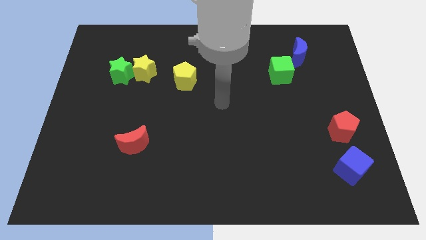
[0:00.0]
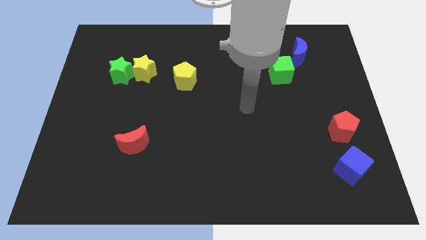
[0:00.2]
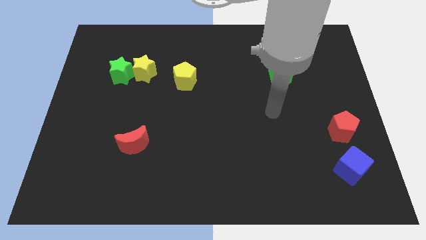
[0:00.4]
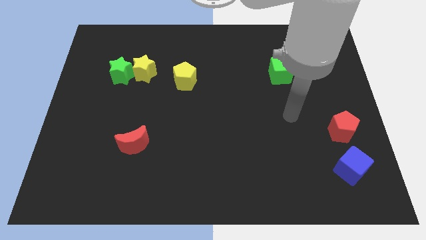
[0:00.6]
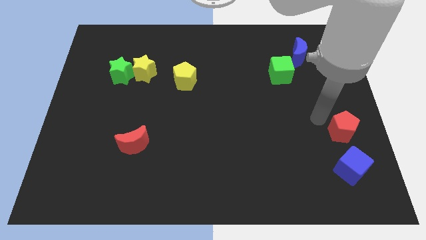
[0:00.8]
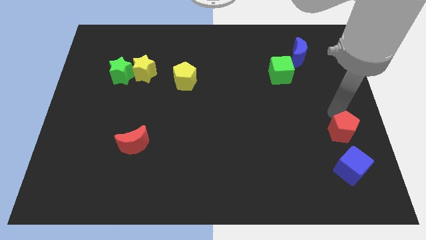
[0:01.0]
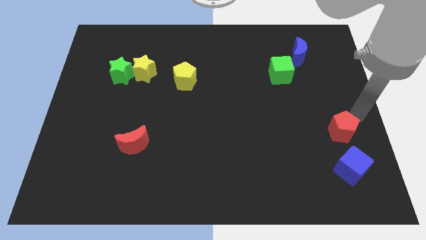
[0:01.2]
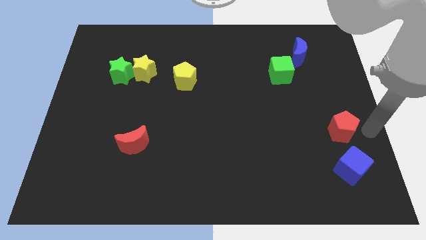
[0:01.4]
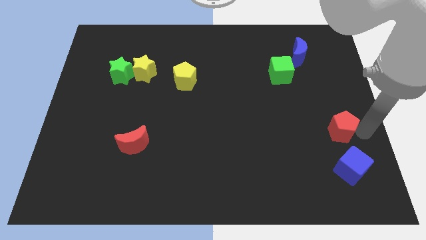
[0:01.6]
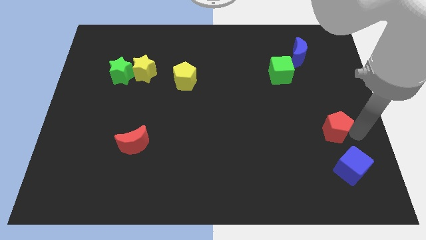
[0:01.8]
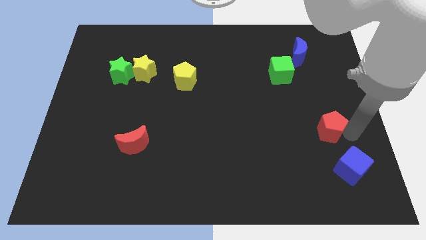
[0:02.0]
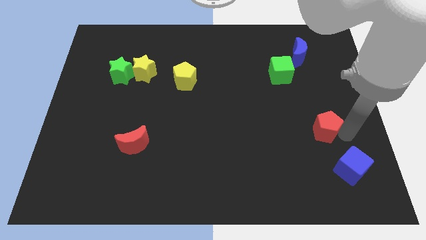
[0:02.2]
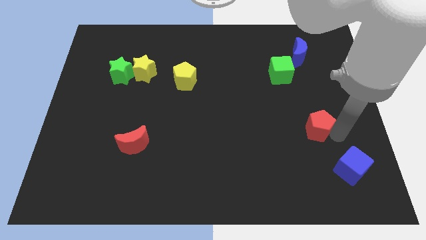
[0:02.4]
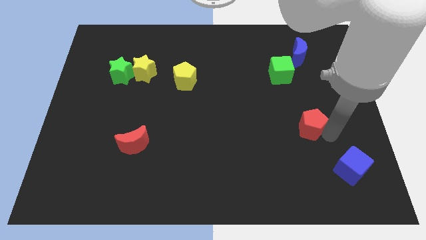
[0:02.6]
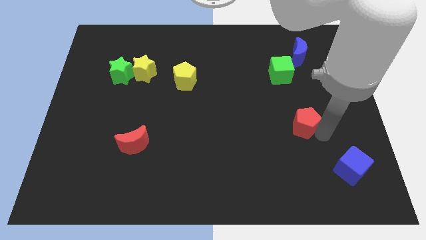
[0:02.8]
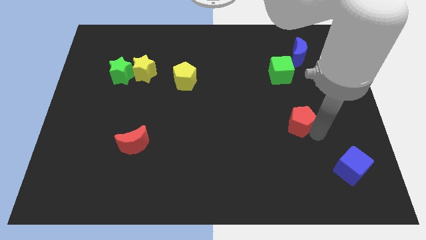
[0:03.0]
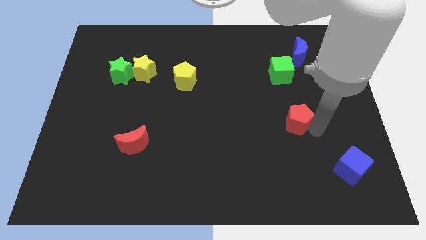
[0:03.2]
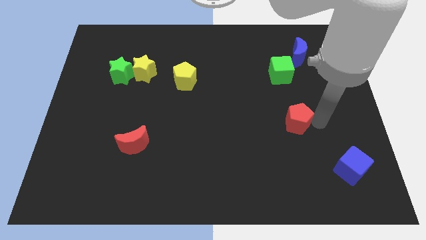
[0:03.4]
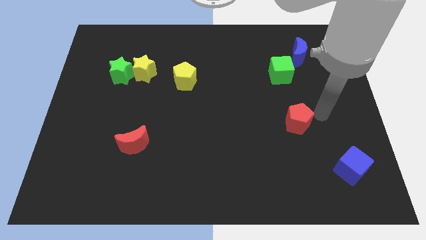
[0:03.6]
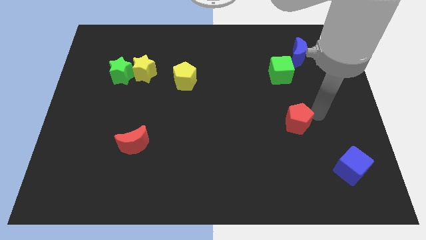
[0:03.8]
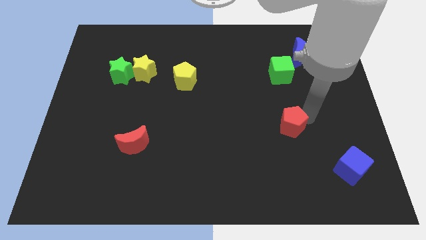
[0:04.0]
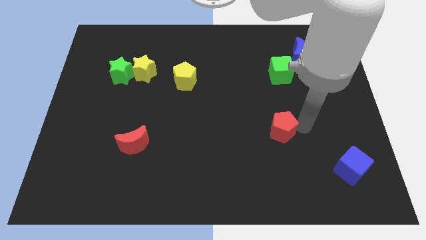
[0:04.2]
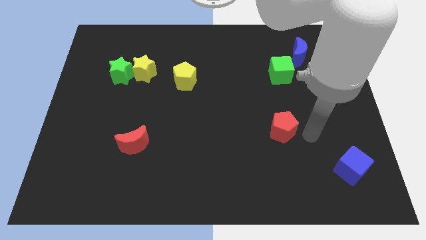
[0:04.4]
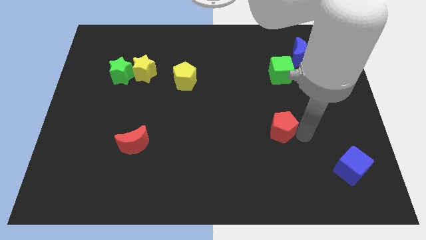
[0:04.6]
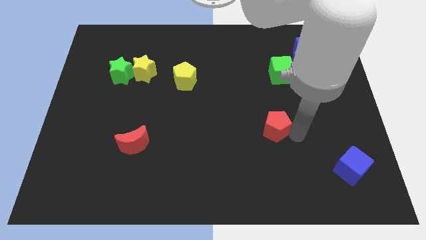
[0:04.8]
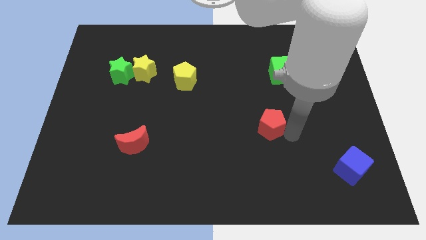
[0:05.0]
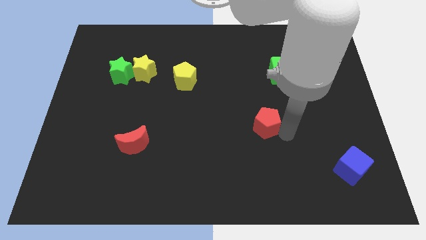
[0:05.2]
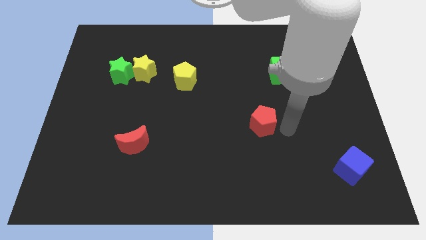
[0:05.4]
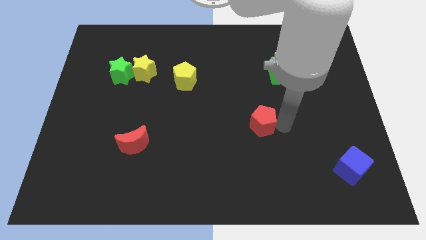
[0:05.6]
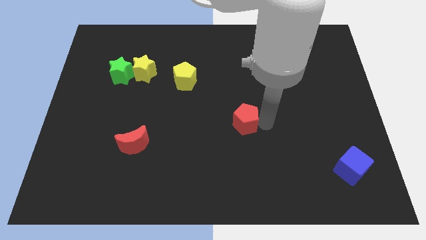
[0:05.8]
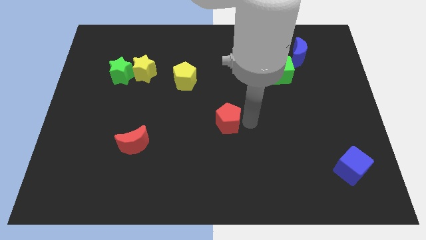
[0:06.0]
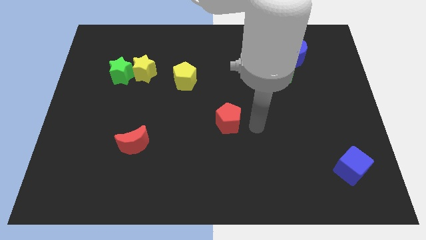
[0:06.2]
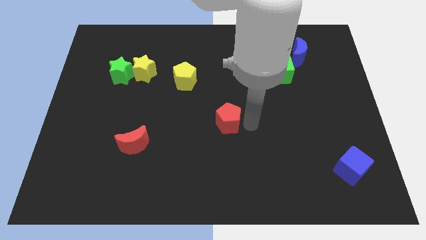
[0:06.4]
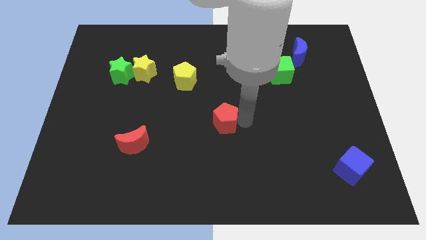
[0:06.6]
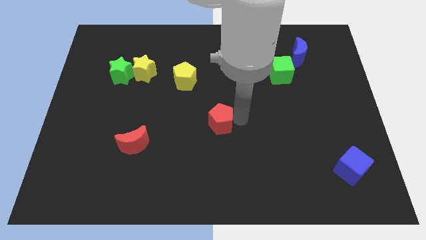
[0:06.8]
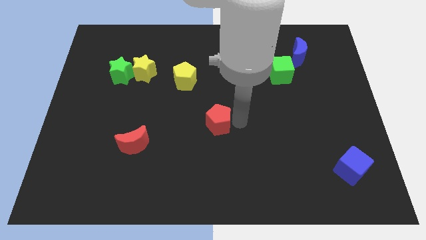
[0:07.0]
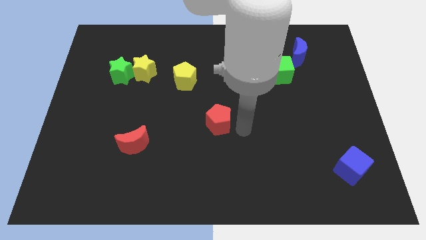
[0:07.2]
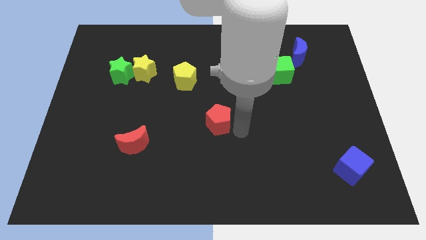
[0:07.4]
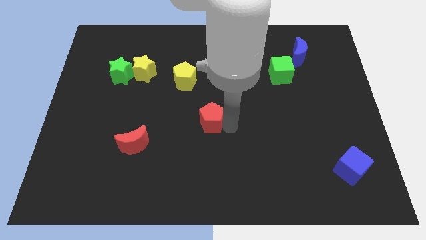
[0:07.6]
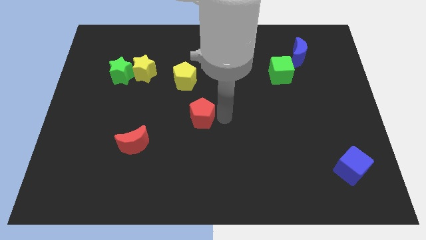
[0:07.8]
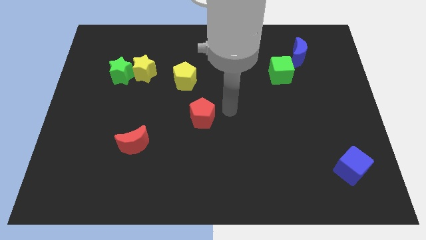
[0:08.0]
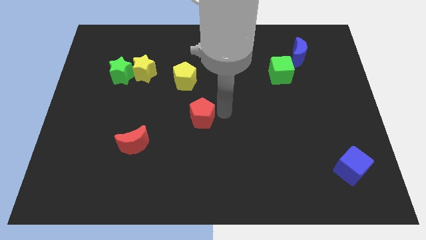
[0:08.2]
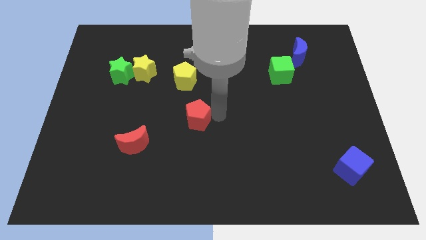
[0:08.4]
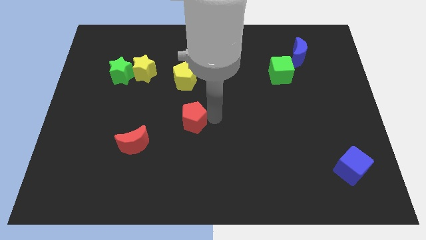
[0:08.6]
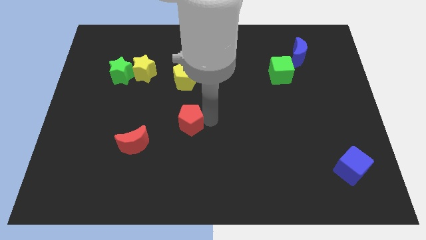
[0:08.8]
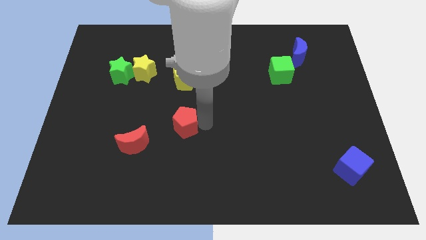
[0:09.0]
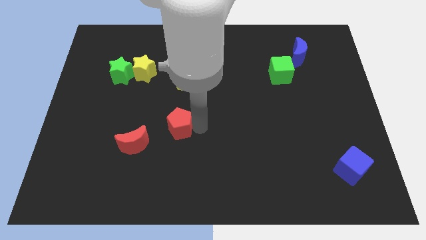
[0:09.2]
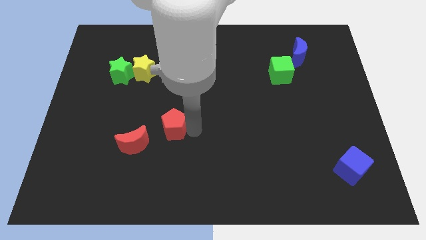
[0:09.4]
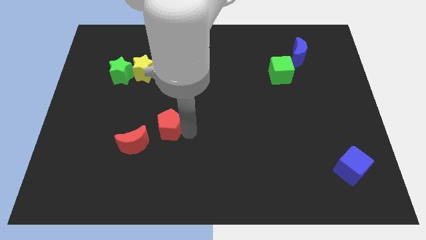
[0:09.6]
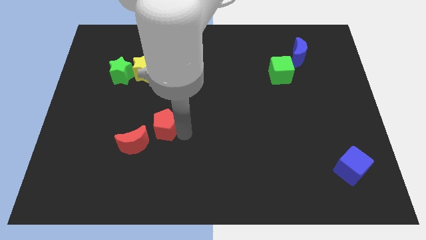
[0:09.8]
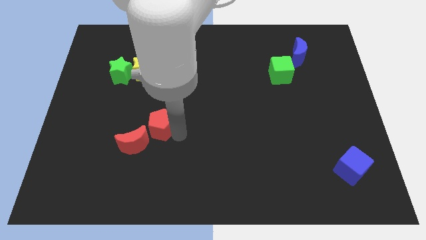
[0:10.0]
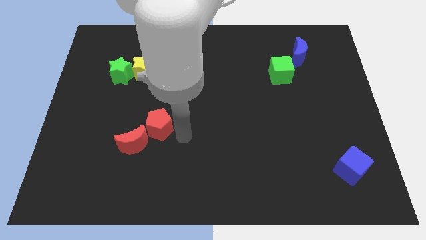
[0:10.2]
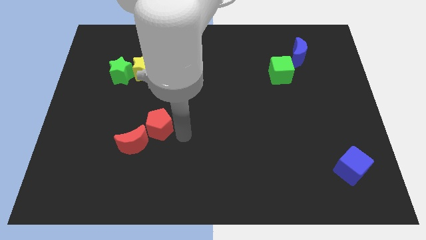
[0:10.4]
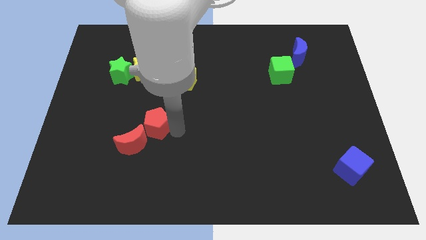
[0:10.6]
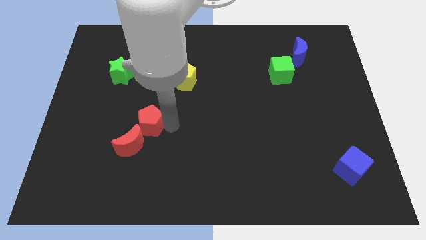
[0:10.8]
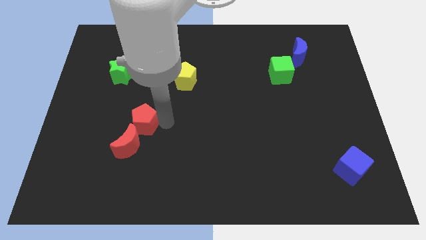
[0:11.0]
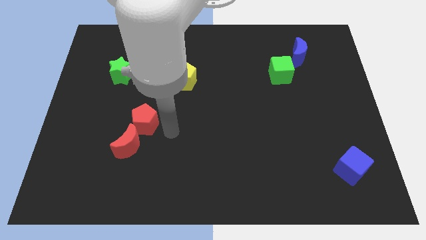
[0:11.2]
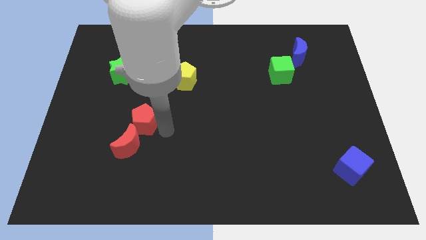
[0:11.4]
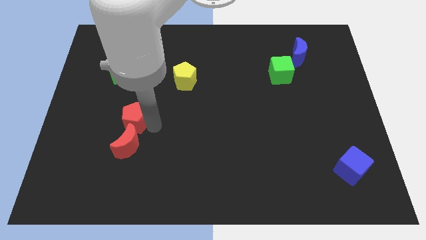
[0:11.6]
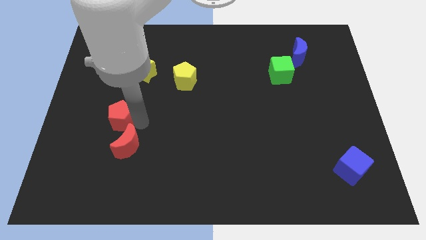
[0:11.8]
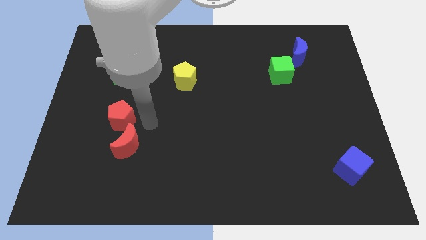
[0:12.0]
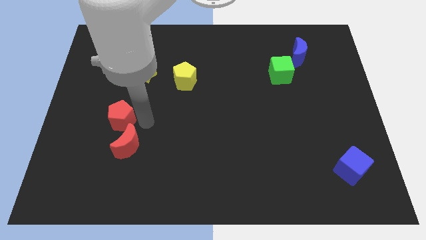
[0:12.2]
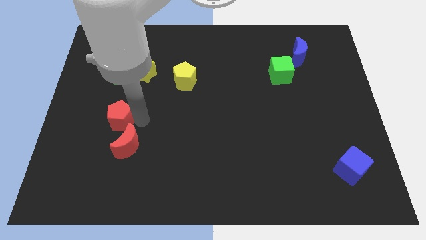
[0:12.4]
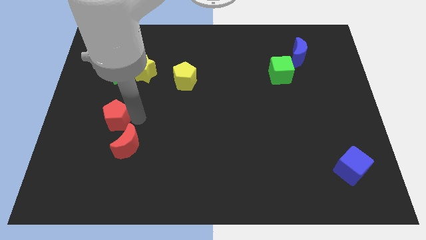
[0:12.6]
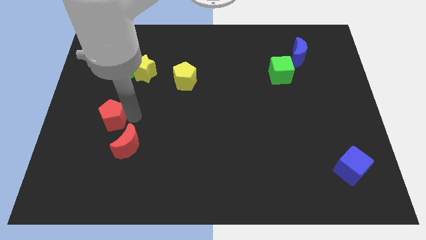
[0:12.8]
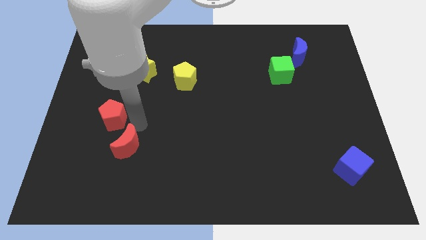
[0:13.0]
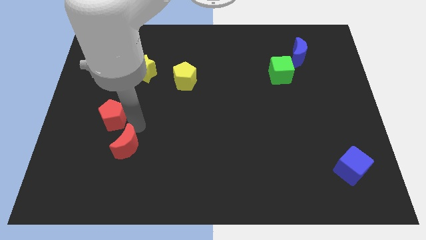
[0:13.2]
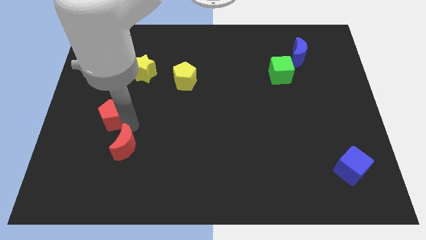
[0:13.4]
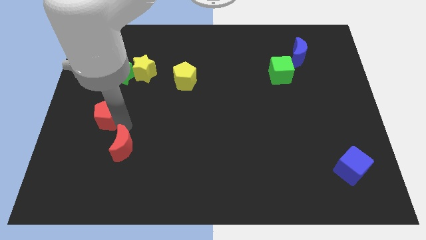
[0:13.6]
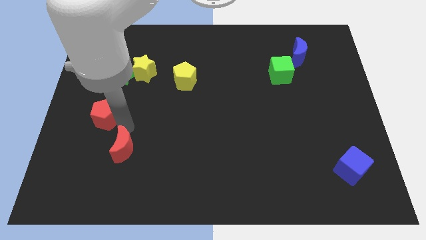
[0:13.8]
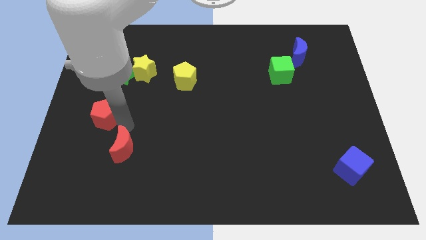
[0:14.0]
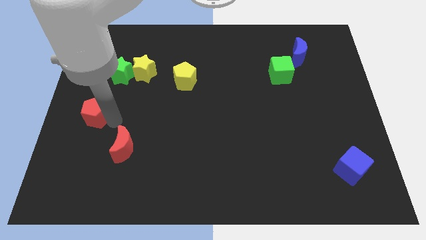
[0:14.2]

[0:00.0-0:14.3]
push the red pentagon to the left side of the board

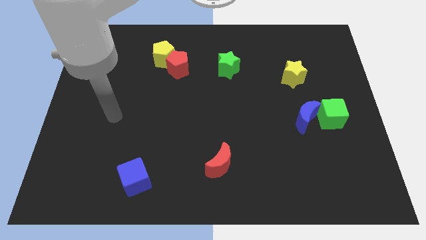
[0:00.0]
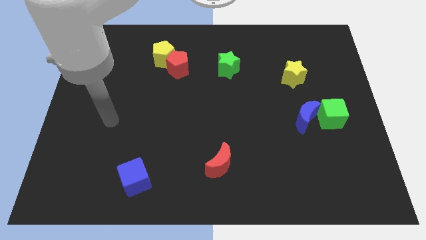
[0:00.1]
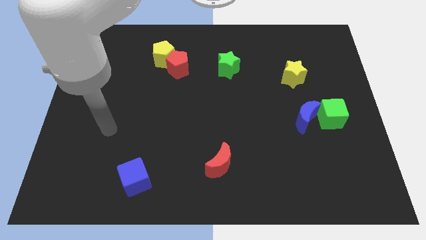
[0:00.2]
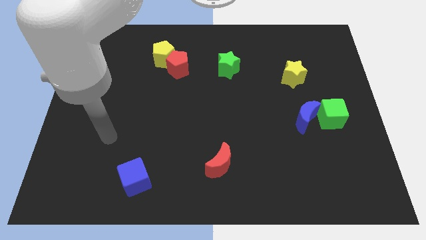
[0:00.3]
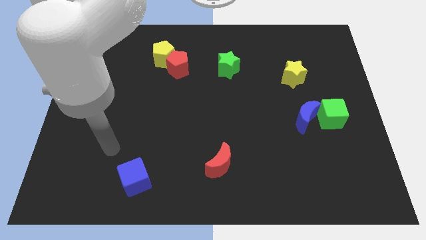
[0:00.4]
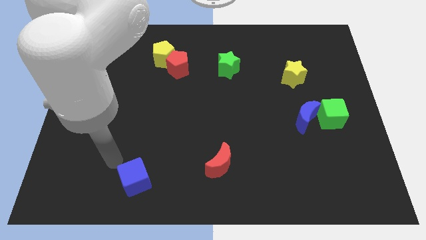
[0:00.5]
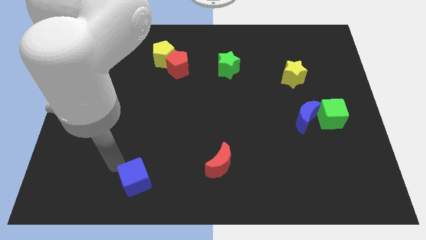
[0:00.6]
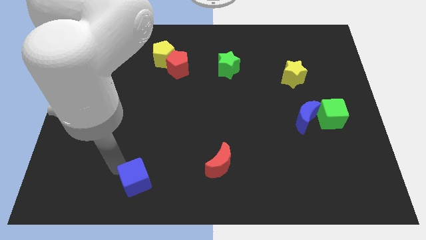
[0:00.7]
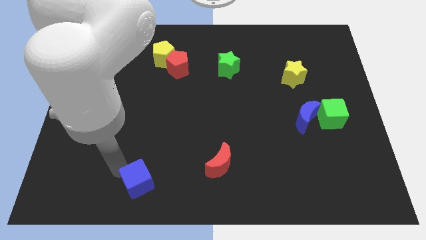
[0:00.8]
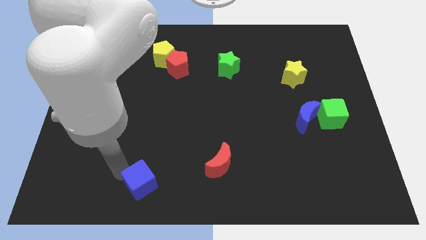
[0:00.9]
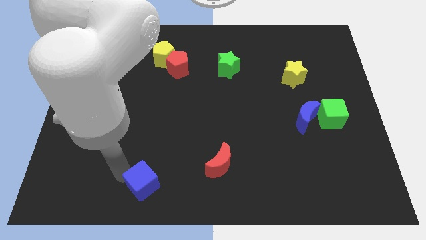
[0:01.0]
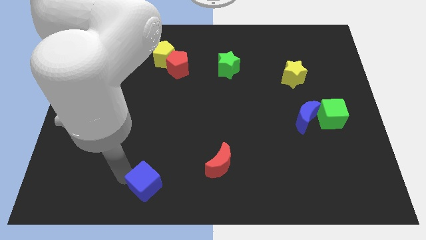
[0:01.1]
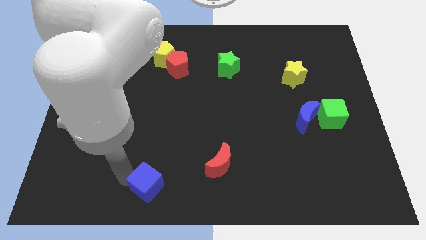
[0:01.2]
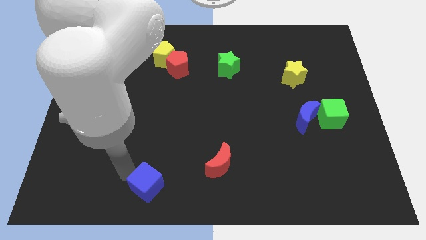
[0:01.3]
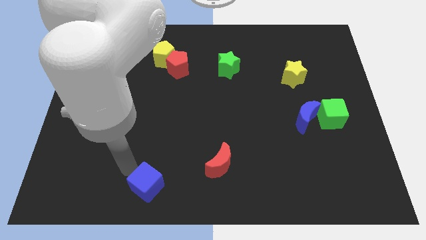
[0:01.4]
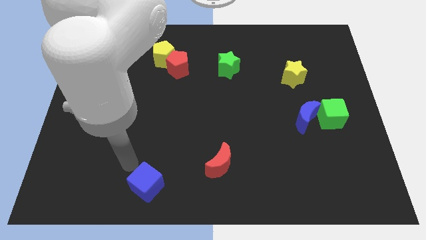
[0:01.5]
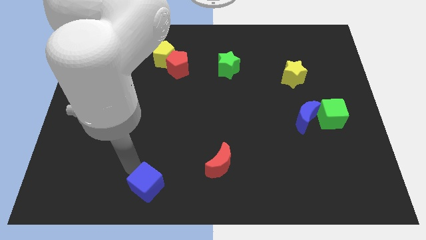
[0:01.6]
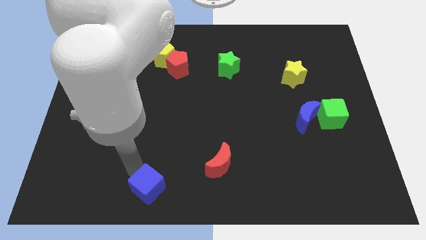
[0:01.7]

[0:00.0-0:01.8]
move the blue cube to the bottom side
